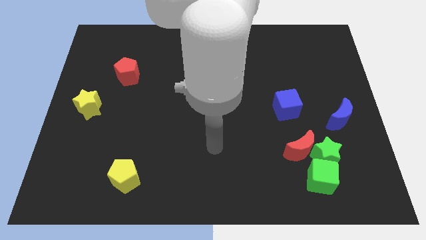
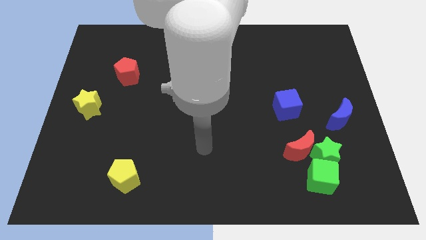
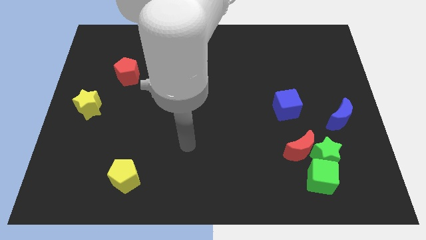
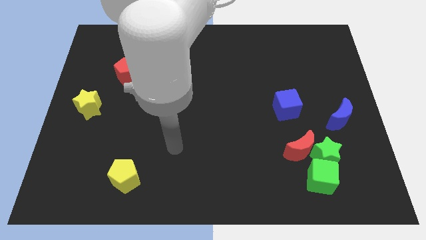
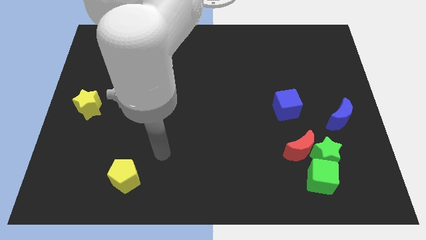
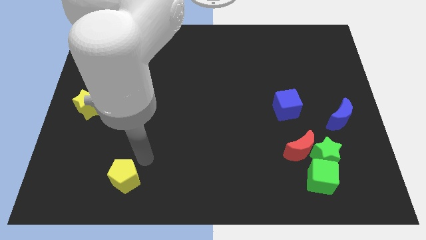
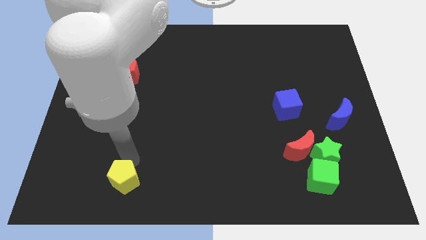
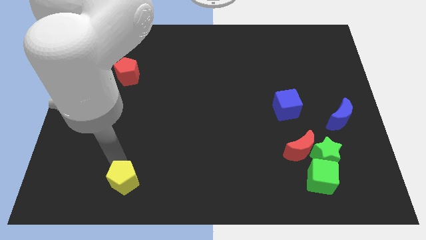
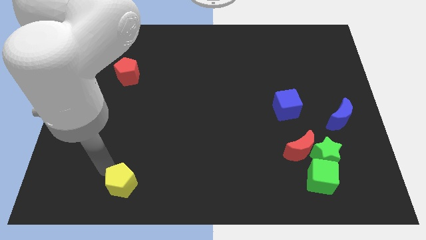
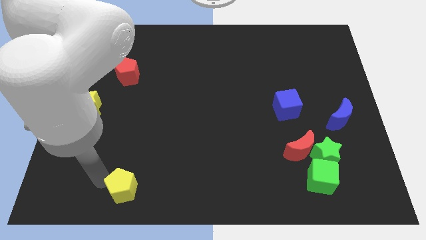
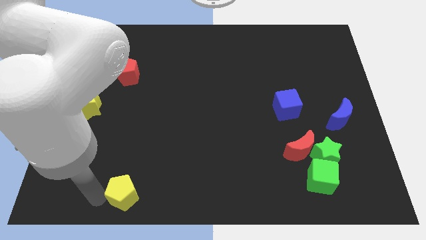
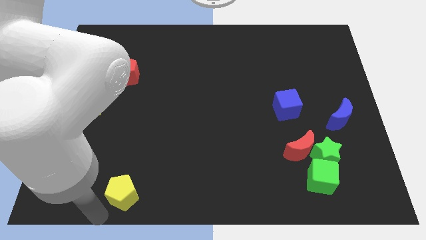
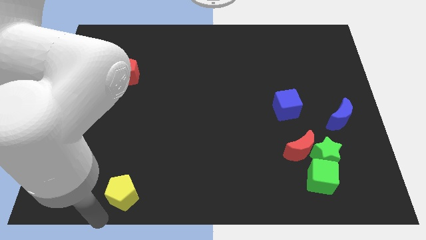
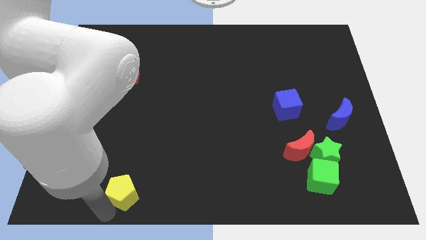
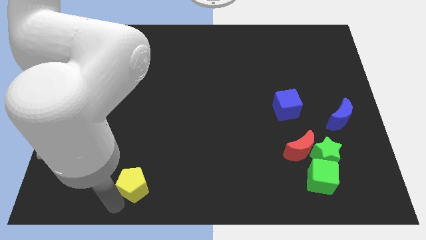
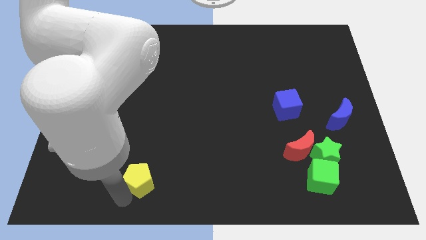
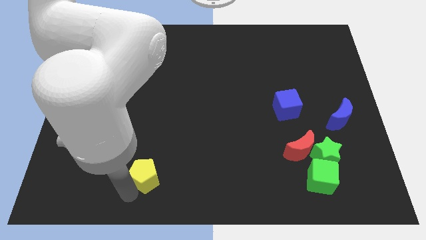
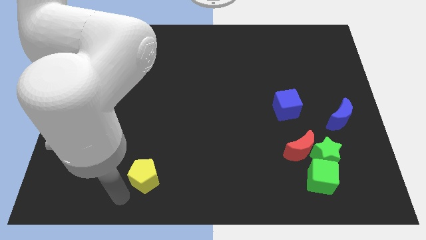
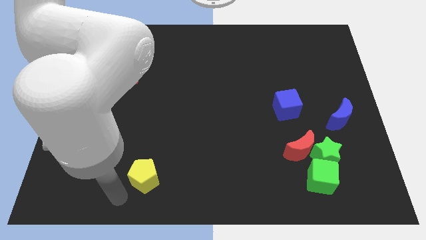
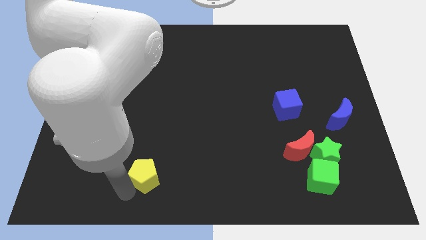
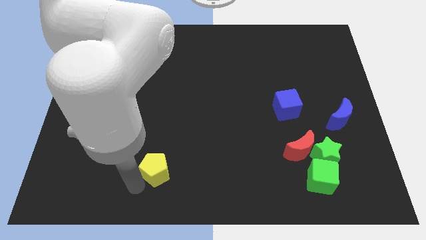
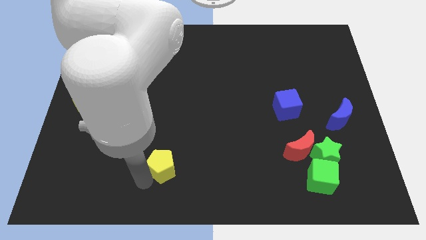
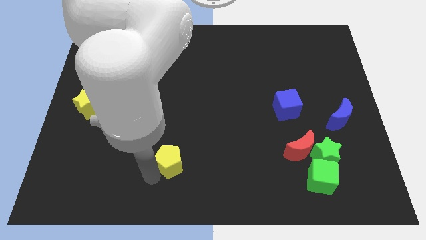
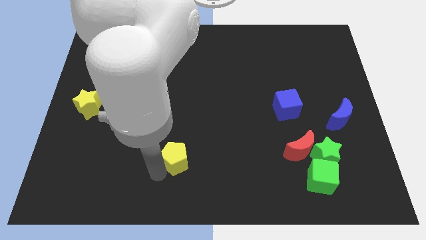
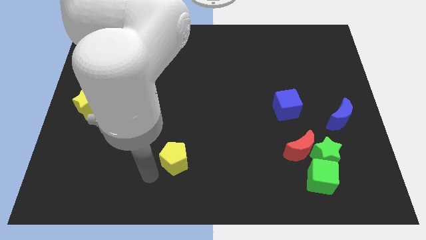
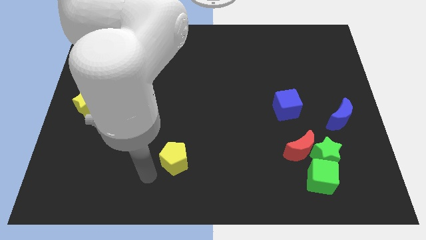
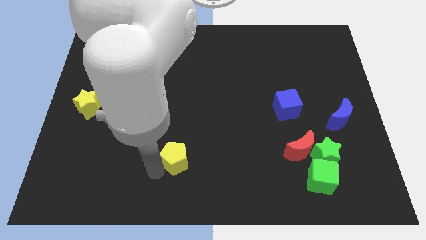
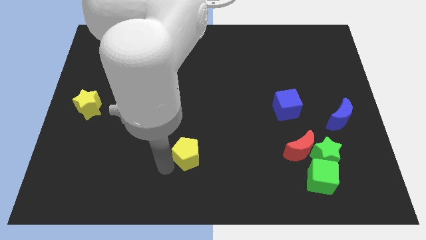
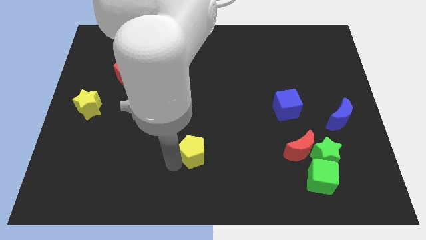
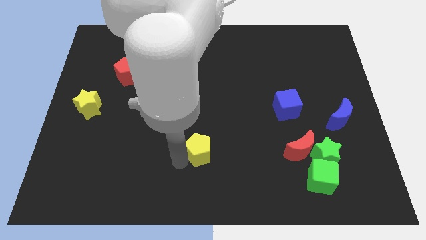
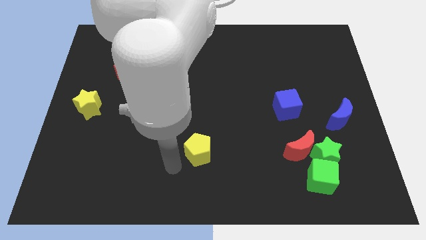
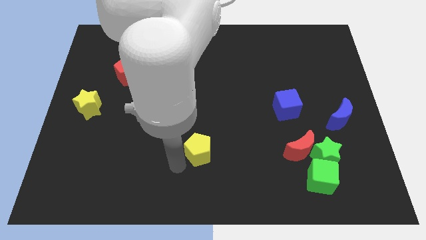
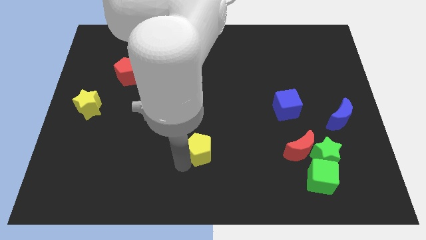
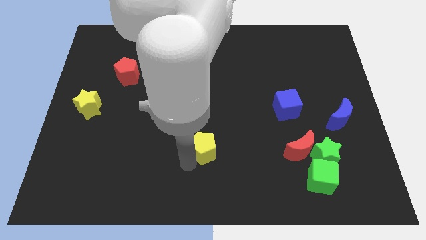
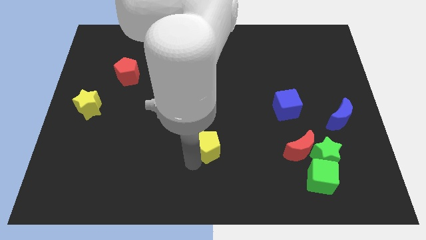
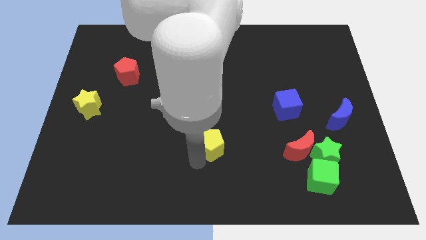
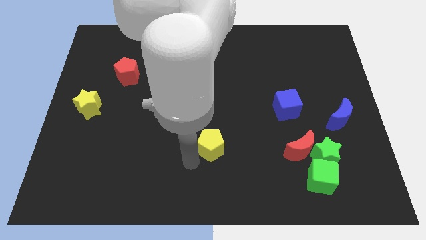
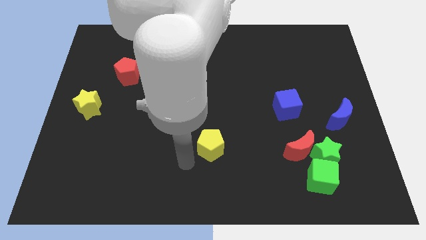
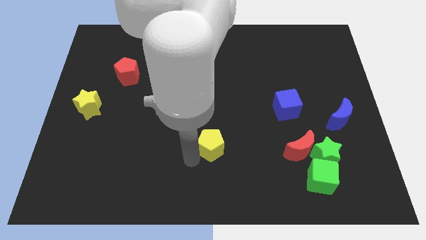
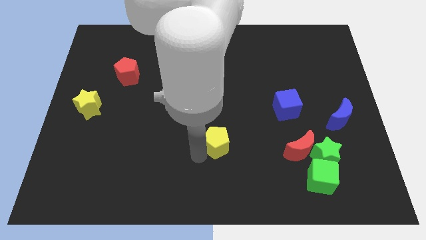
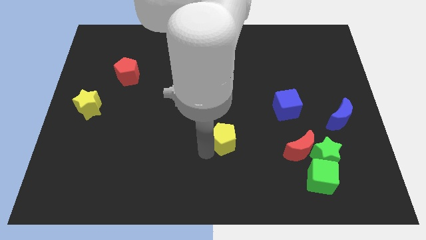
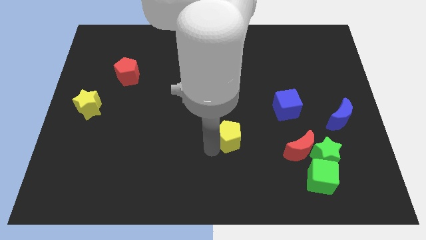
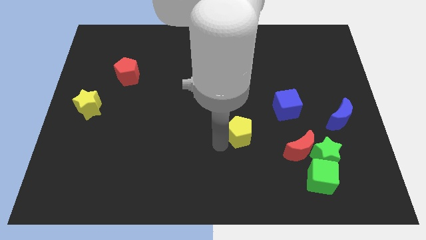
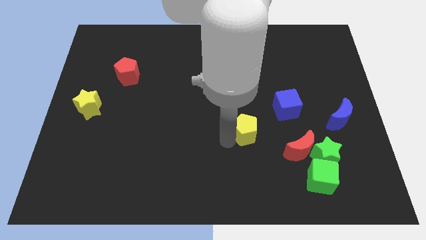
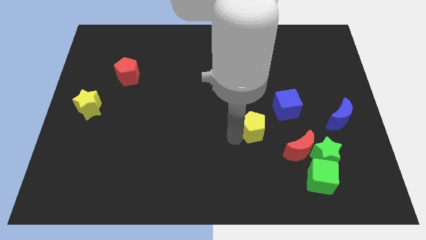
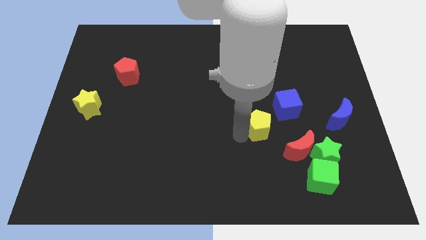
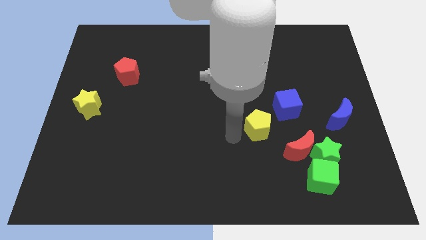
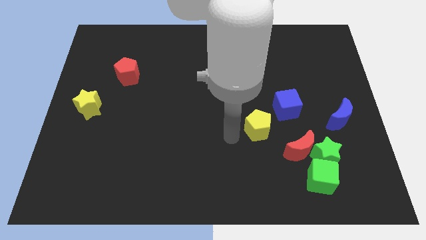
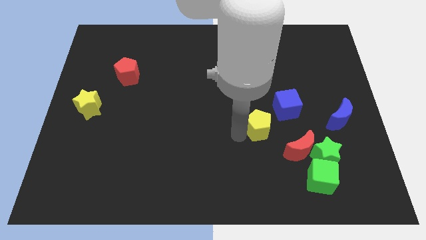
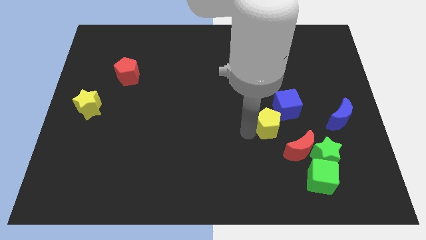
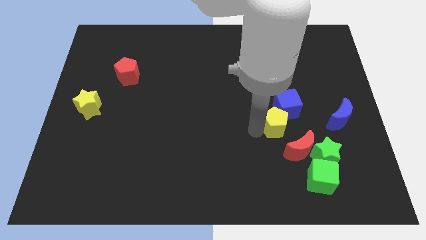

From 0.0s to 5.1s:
move the yellow pentagon to the left of the blue moon

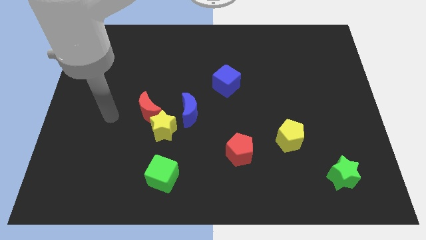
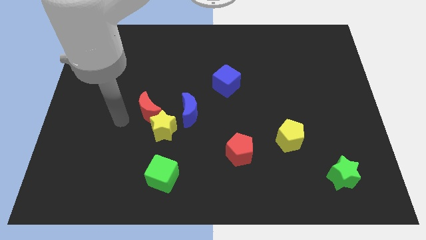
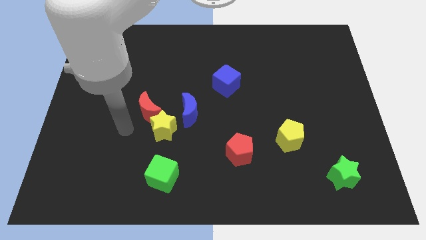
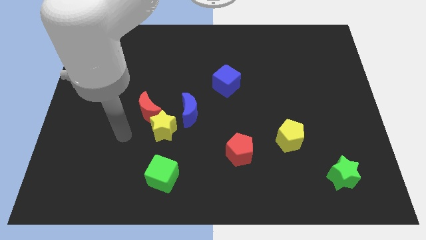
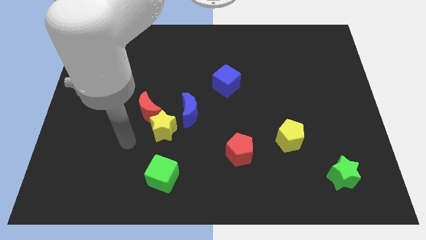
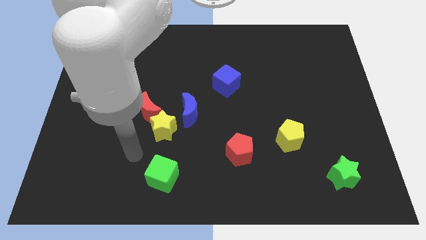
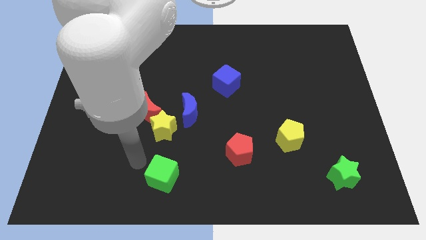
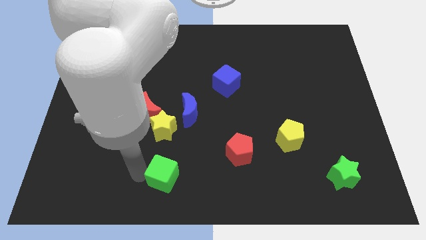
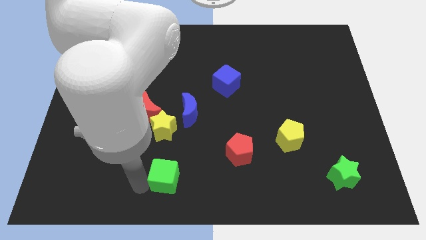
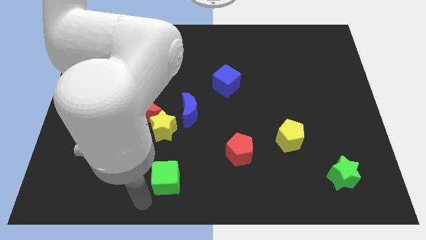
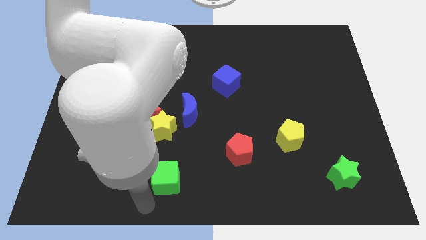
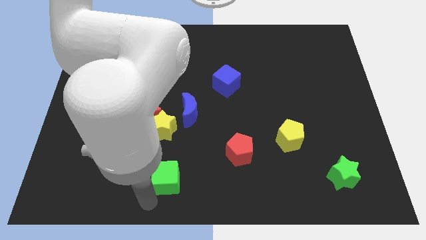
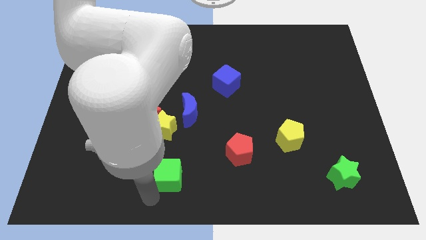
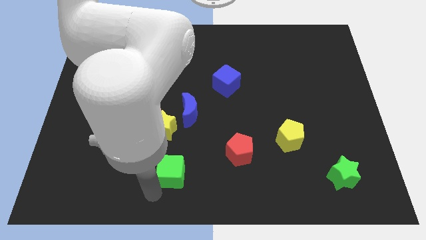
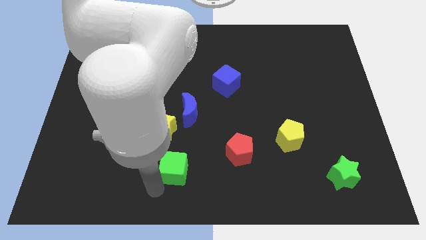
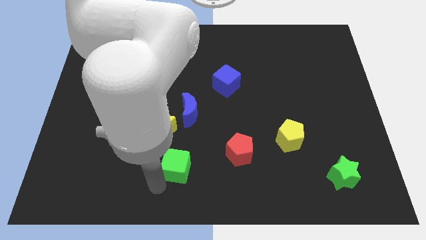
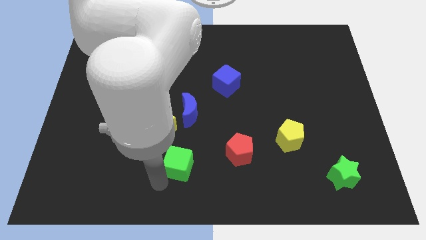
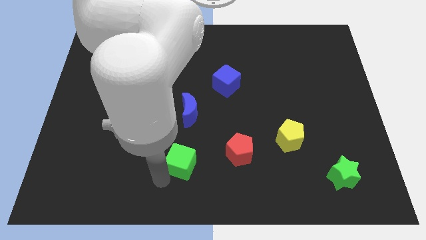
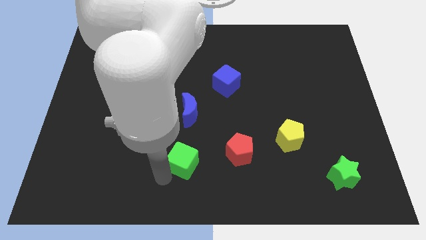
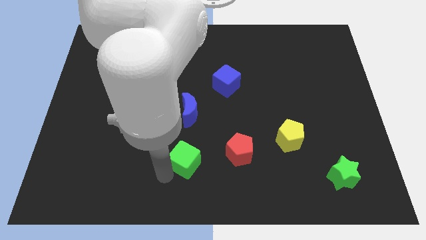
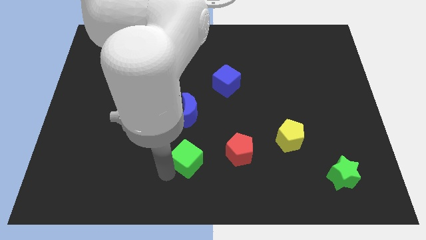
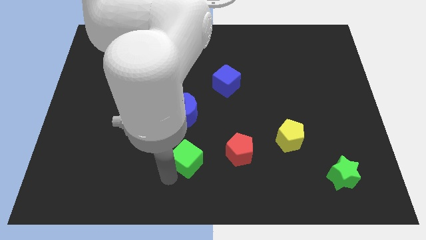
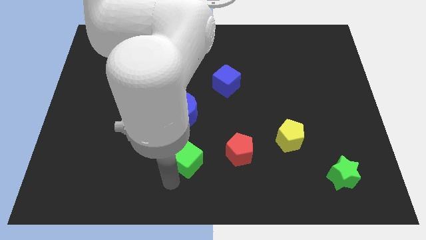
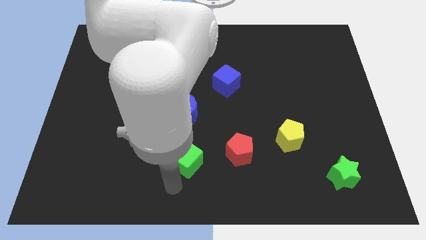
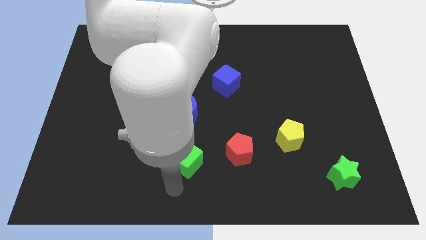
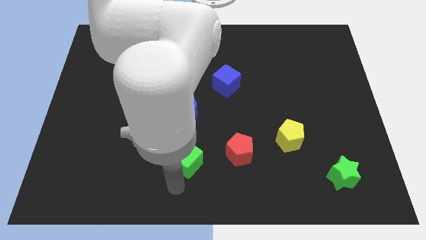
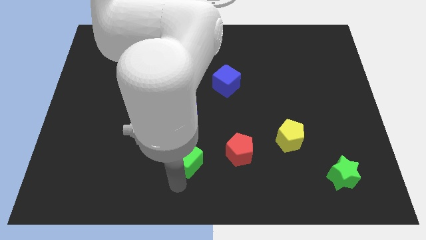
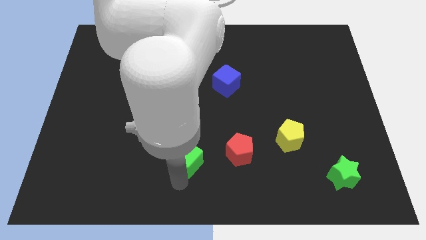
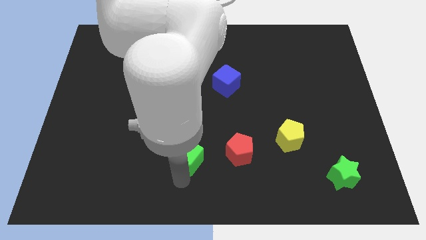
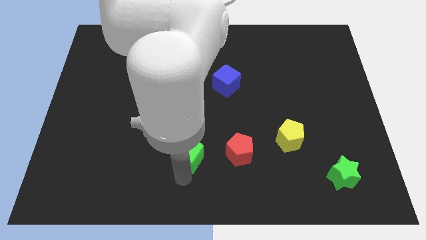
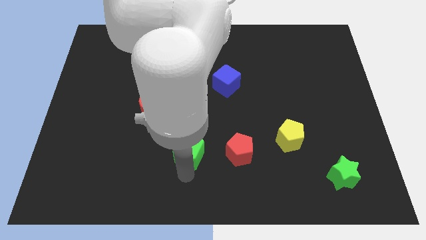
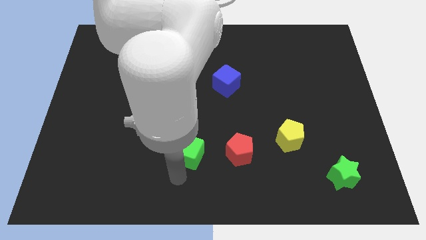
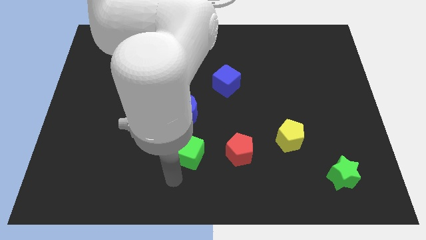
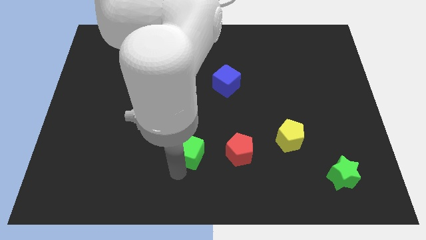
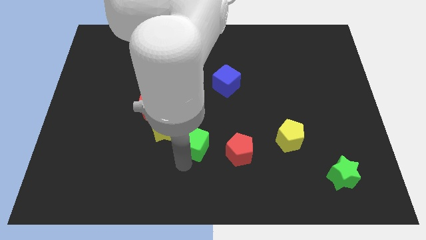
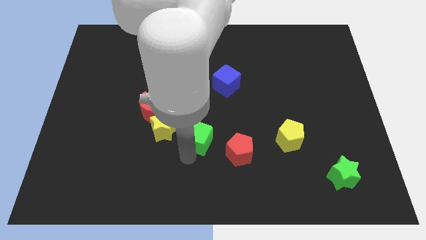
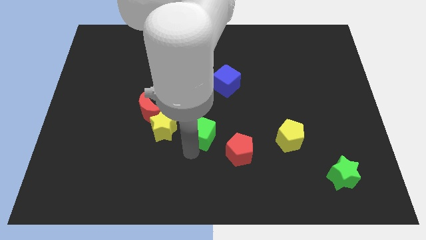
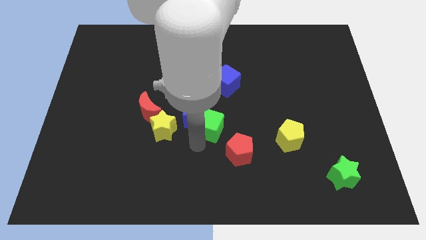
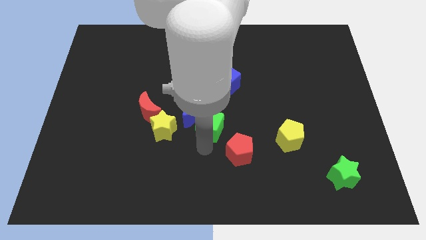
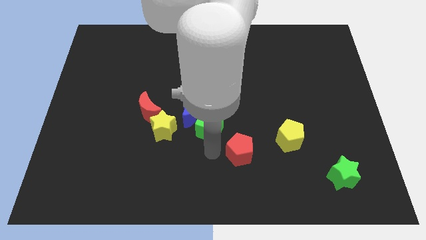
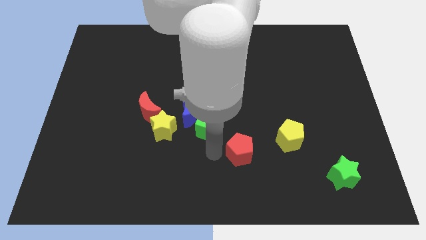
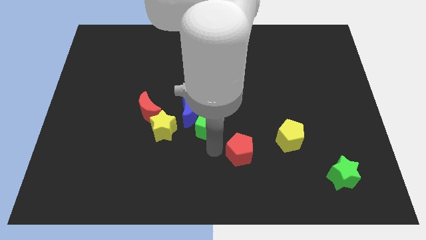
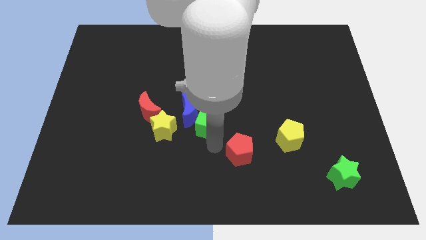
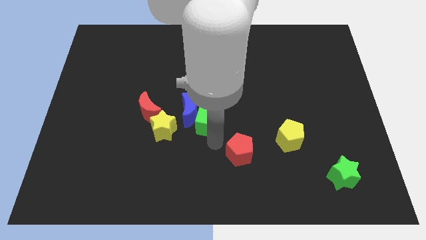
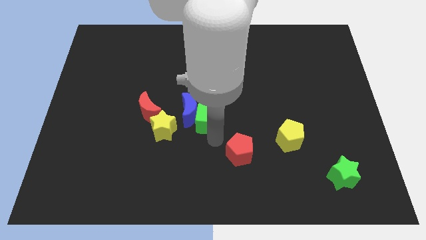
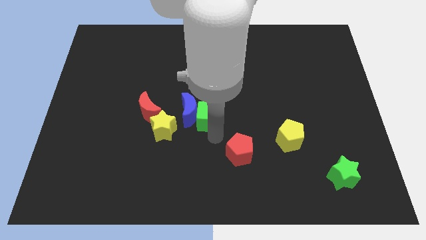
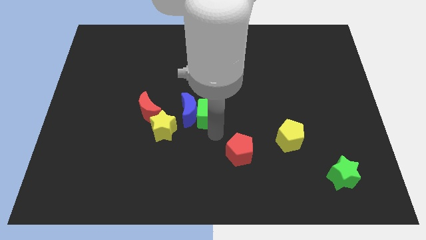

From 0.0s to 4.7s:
put the green cube diagonally down and to the left of the blue cube
